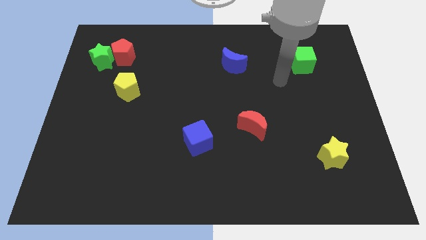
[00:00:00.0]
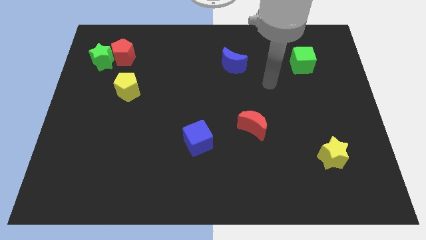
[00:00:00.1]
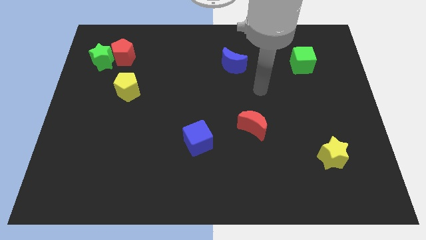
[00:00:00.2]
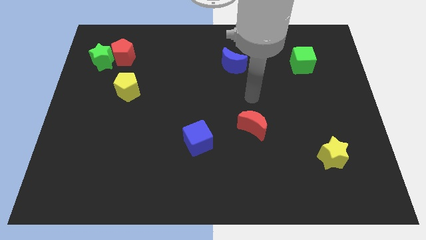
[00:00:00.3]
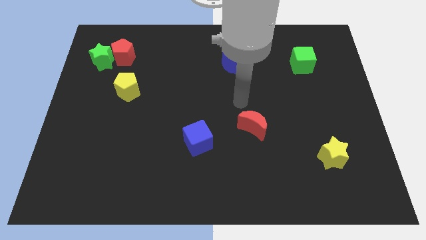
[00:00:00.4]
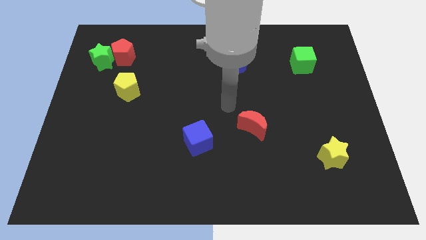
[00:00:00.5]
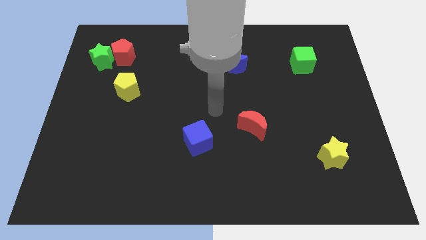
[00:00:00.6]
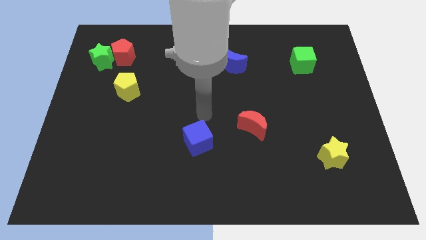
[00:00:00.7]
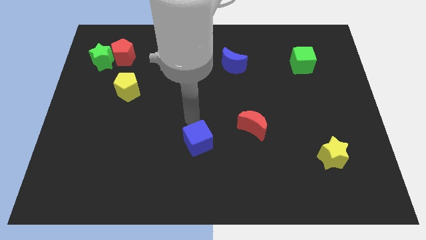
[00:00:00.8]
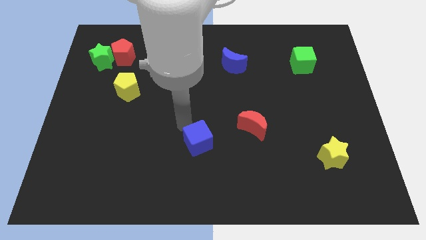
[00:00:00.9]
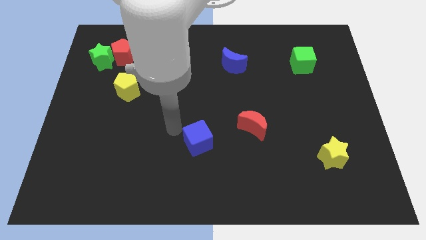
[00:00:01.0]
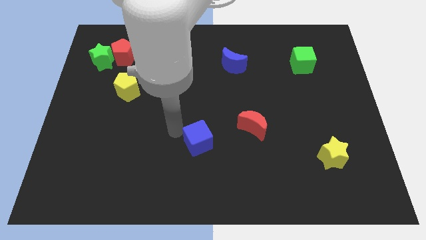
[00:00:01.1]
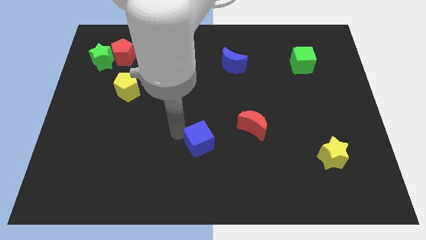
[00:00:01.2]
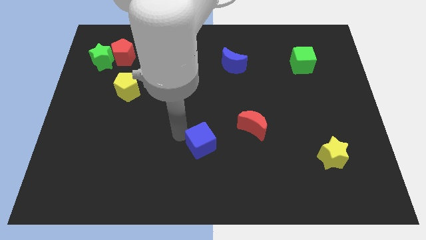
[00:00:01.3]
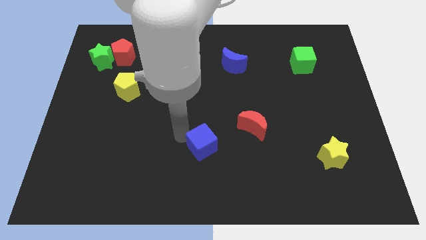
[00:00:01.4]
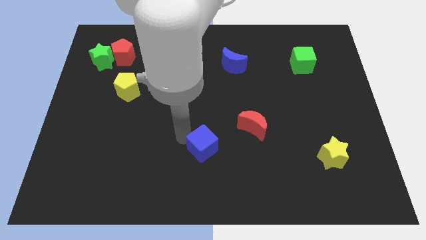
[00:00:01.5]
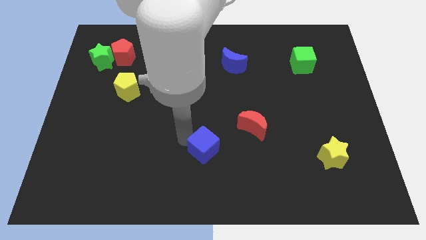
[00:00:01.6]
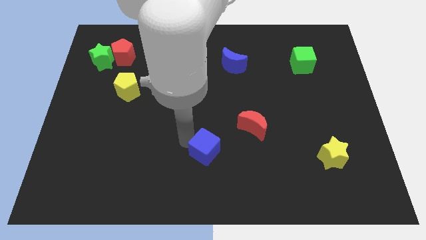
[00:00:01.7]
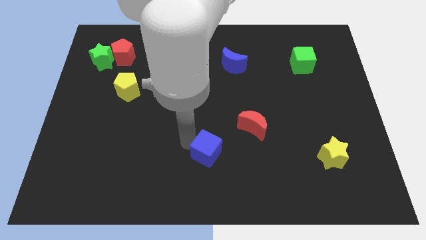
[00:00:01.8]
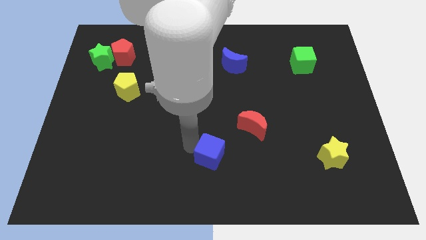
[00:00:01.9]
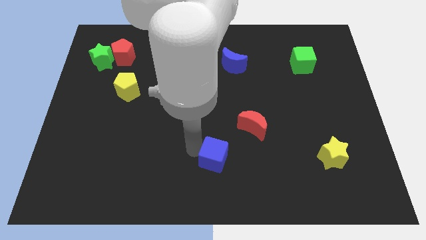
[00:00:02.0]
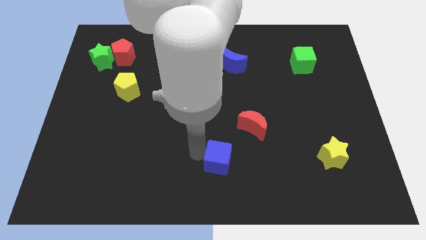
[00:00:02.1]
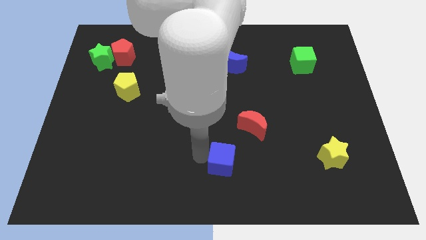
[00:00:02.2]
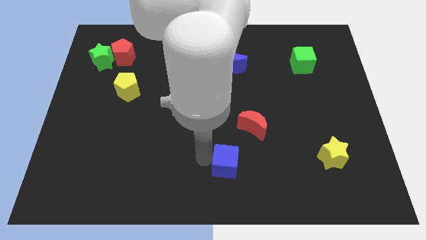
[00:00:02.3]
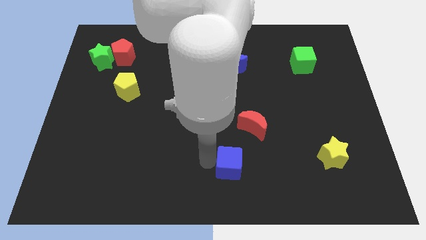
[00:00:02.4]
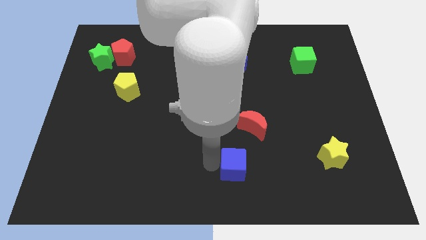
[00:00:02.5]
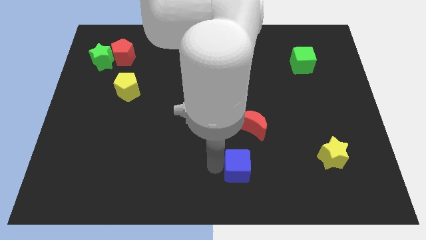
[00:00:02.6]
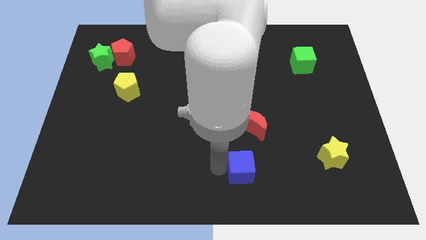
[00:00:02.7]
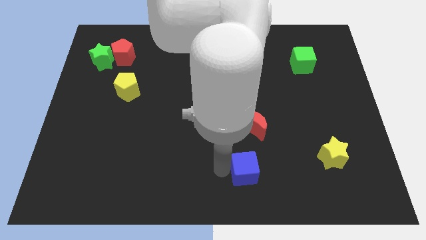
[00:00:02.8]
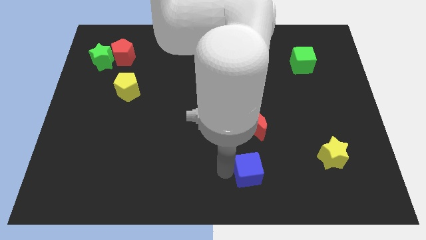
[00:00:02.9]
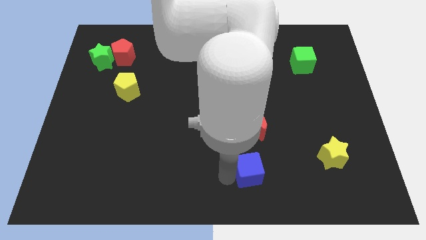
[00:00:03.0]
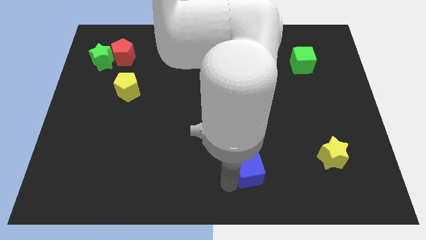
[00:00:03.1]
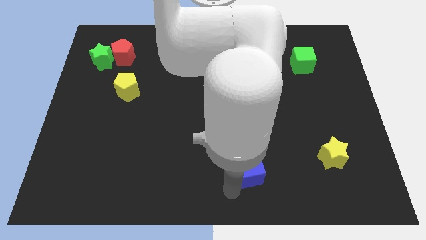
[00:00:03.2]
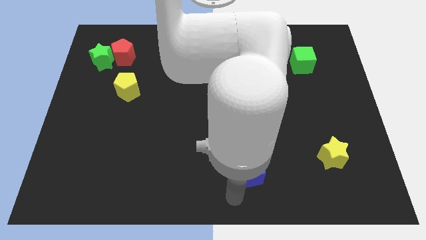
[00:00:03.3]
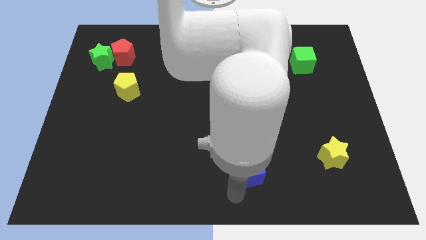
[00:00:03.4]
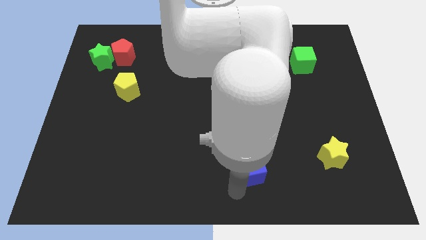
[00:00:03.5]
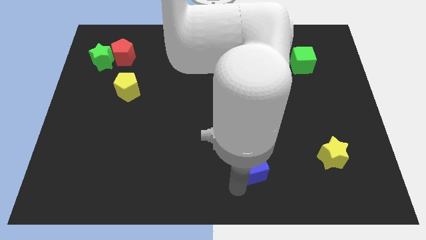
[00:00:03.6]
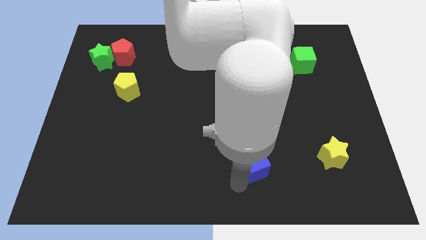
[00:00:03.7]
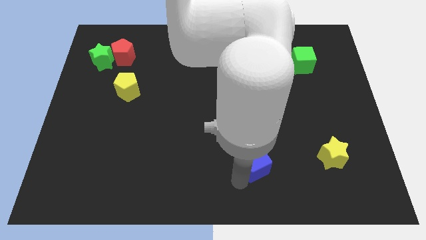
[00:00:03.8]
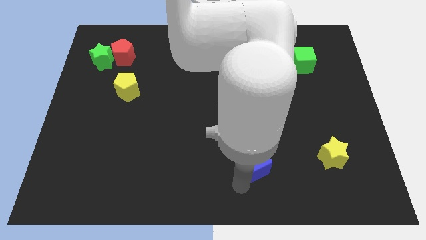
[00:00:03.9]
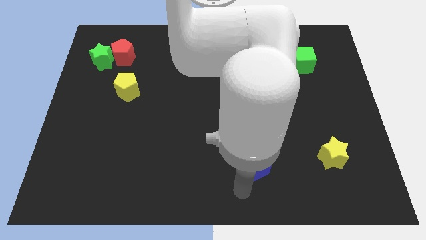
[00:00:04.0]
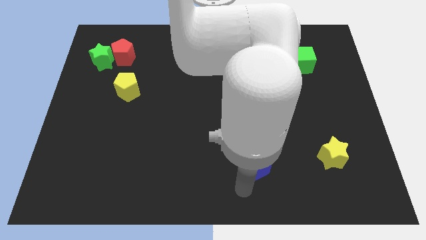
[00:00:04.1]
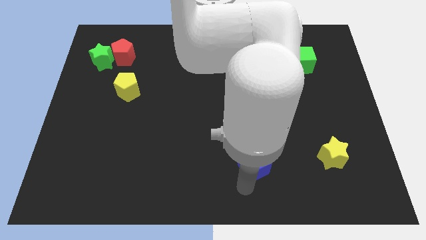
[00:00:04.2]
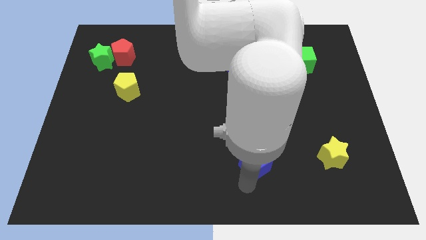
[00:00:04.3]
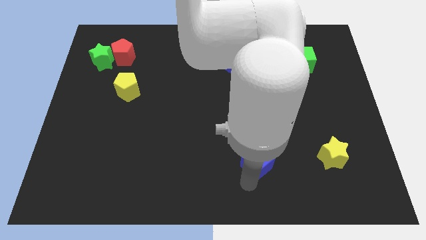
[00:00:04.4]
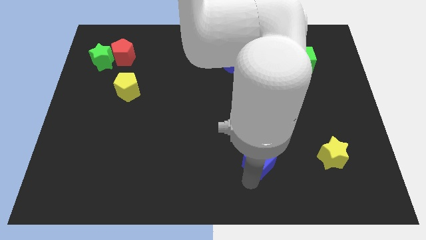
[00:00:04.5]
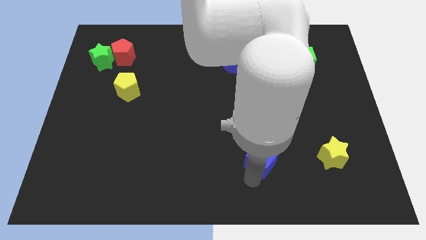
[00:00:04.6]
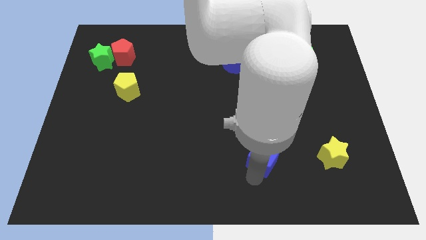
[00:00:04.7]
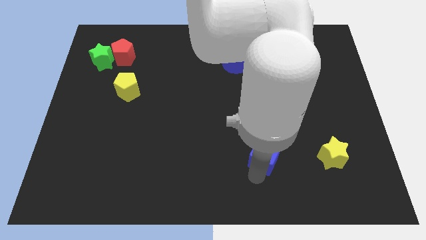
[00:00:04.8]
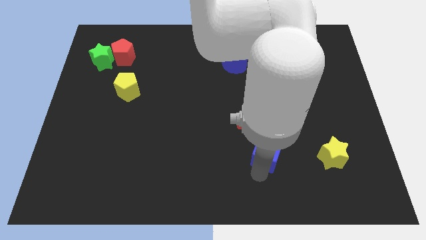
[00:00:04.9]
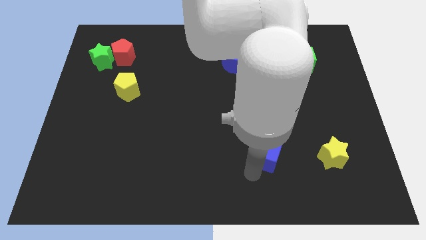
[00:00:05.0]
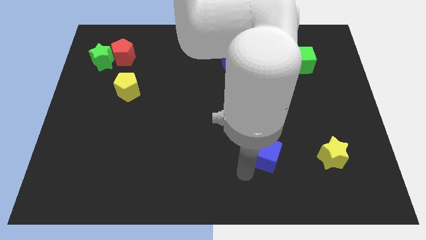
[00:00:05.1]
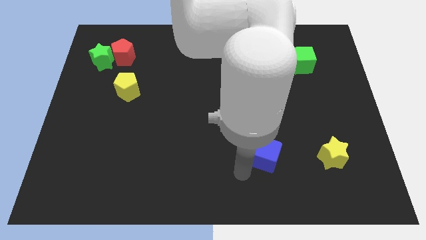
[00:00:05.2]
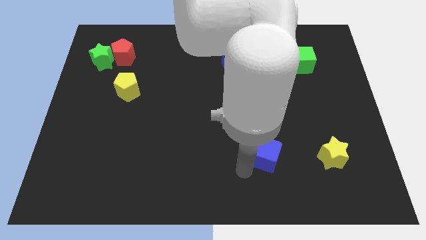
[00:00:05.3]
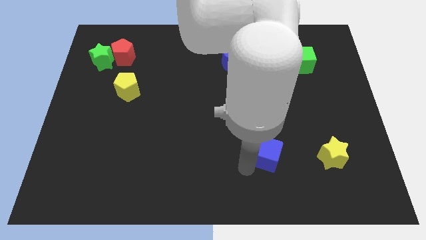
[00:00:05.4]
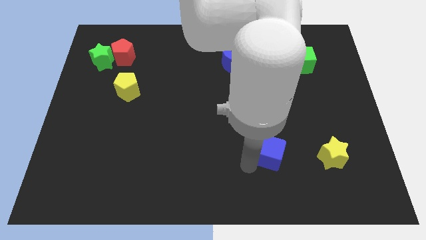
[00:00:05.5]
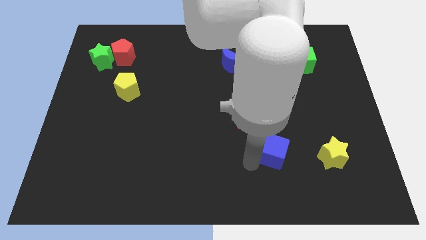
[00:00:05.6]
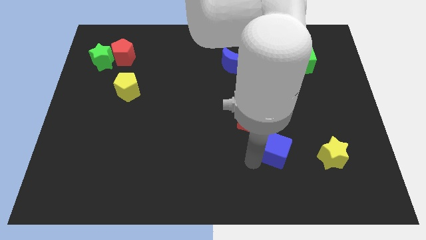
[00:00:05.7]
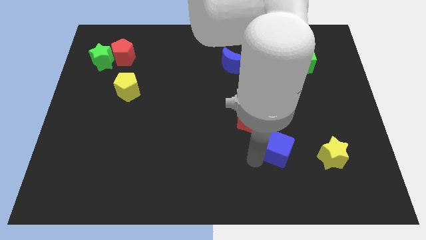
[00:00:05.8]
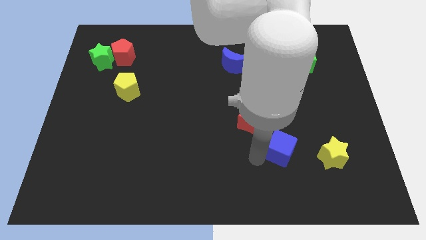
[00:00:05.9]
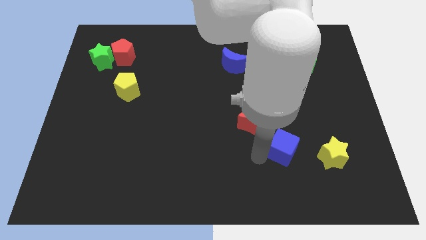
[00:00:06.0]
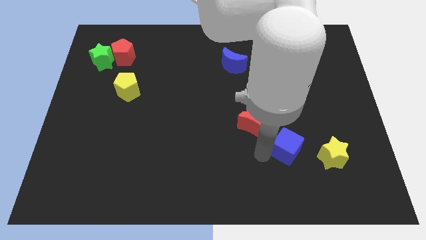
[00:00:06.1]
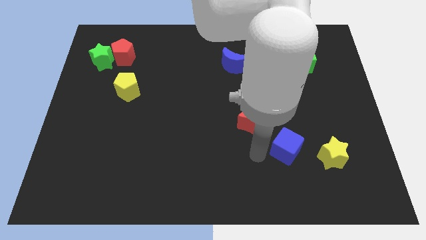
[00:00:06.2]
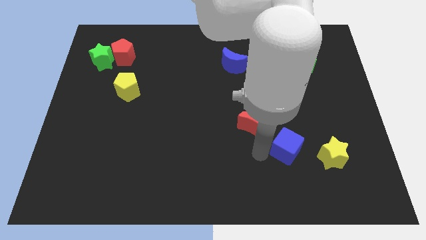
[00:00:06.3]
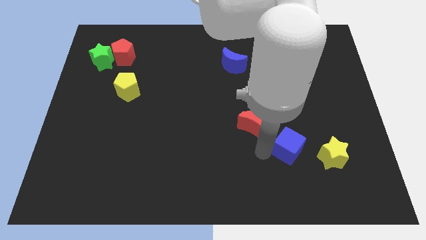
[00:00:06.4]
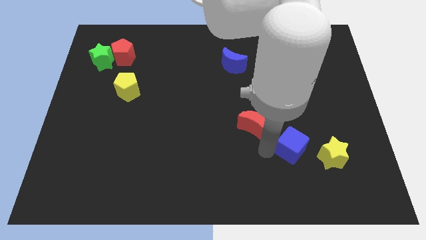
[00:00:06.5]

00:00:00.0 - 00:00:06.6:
move the blue cube to the right

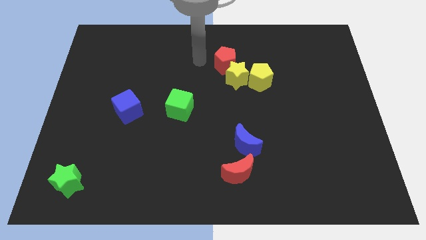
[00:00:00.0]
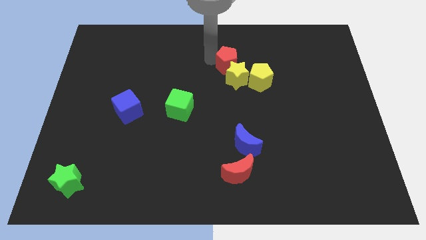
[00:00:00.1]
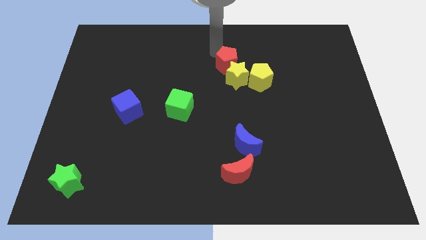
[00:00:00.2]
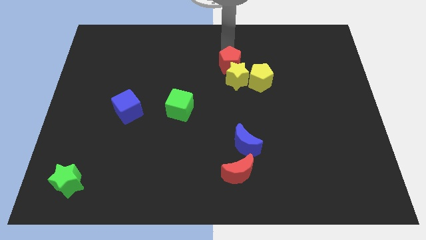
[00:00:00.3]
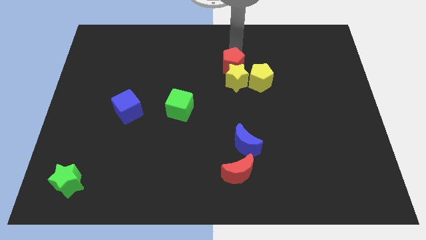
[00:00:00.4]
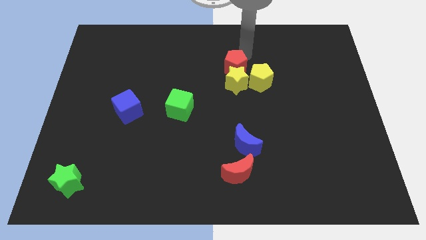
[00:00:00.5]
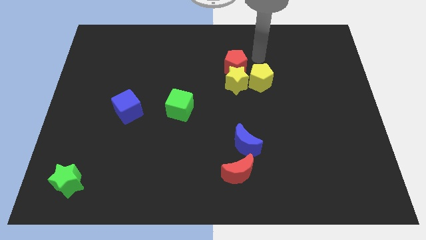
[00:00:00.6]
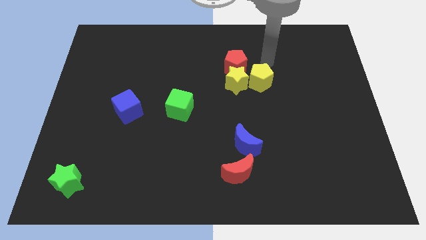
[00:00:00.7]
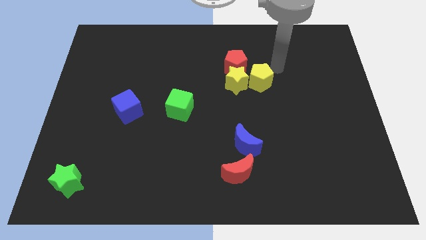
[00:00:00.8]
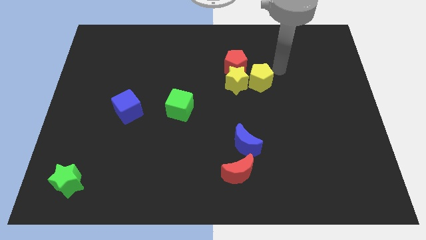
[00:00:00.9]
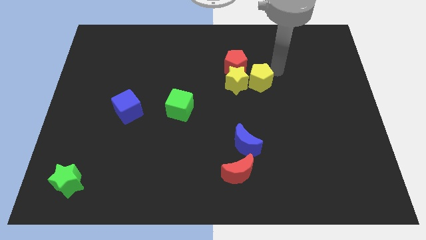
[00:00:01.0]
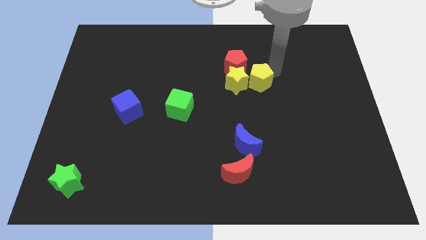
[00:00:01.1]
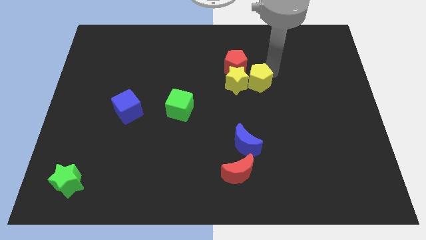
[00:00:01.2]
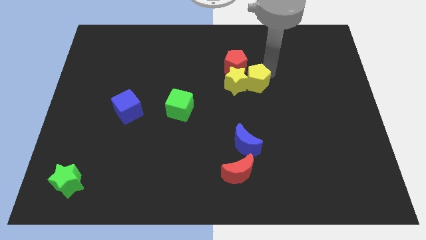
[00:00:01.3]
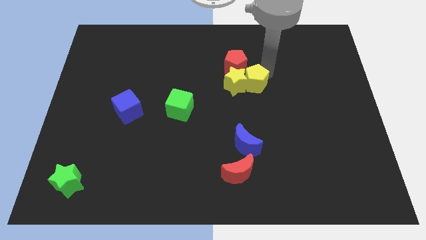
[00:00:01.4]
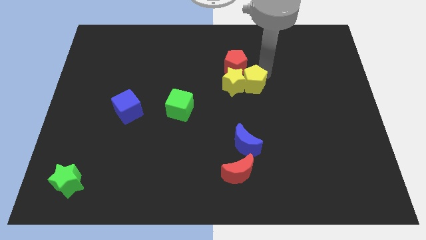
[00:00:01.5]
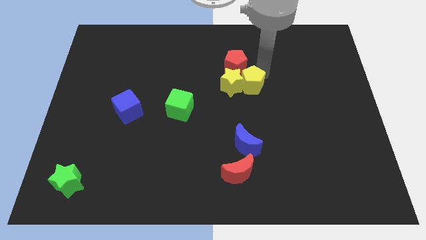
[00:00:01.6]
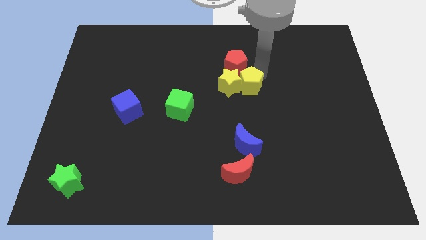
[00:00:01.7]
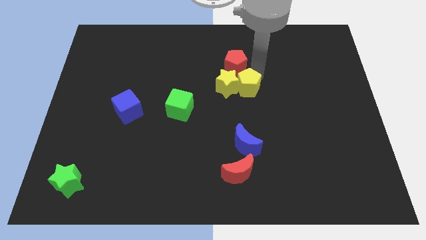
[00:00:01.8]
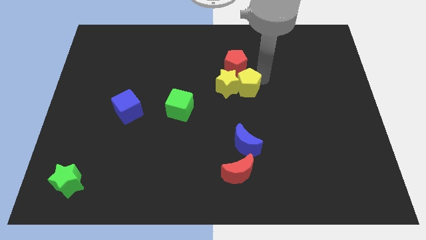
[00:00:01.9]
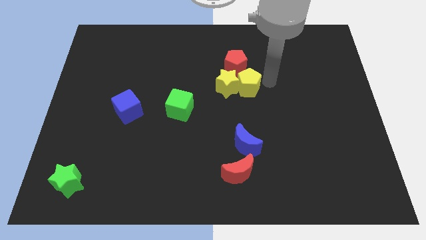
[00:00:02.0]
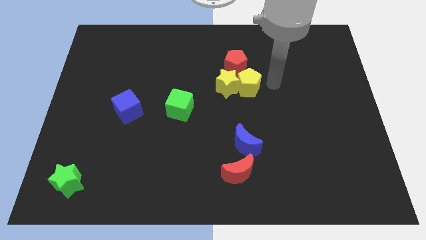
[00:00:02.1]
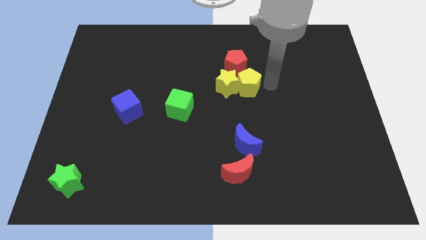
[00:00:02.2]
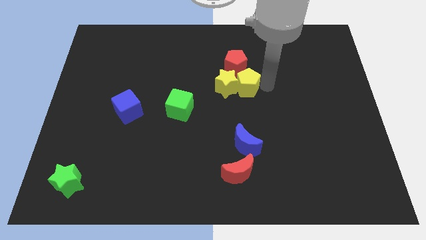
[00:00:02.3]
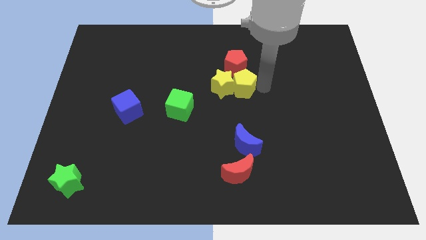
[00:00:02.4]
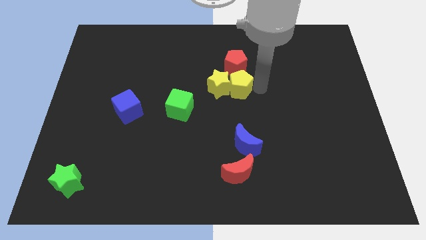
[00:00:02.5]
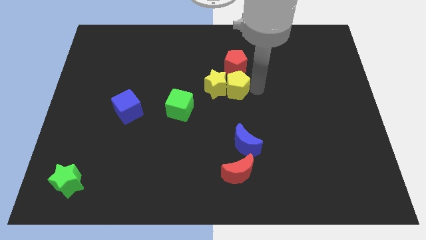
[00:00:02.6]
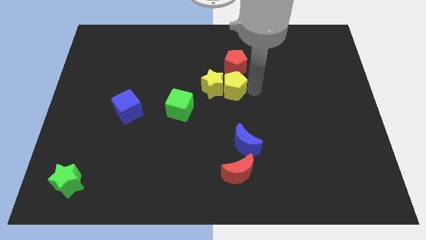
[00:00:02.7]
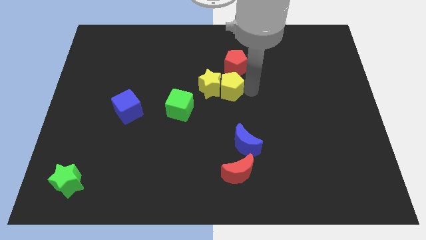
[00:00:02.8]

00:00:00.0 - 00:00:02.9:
push the yellow pentagon slightly to the left
